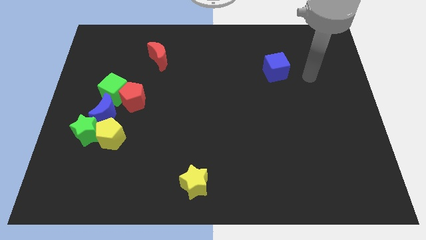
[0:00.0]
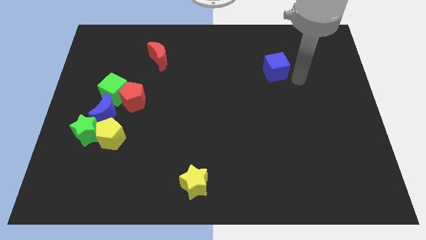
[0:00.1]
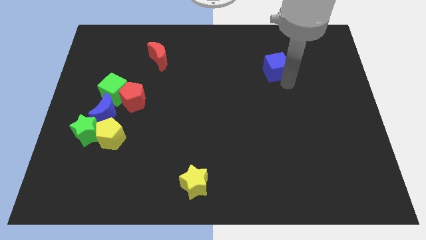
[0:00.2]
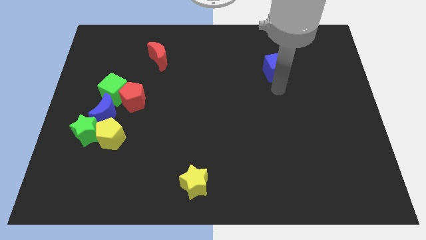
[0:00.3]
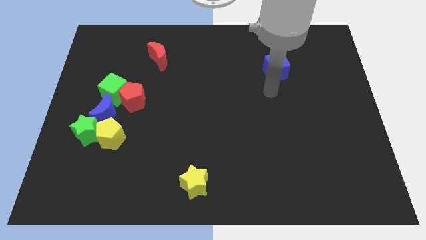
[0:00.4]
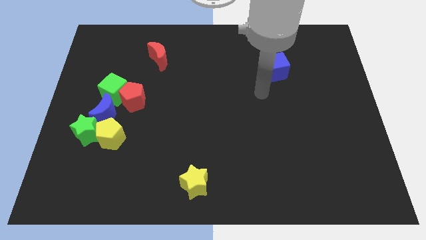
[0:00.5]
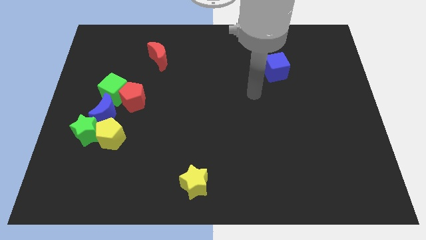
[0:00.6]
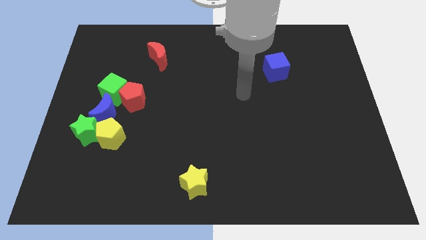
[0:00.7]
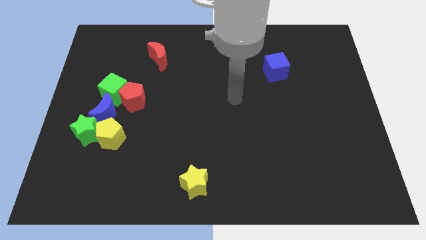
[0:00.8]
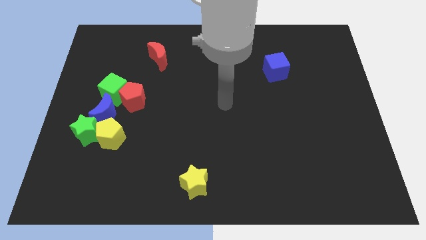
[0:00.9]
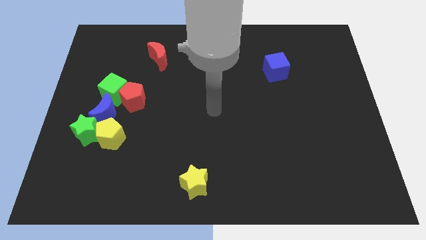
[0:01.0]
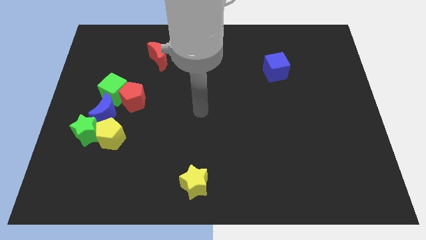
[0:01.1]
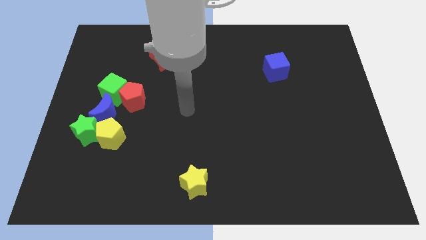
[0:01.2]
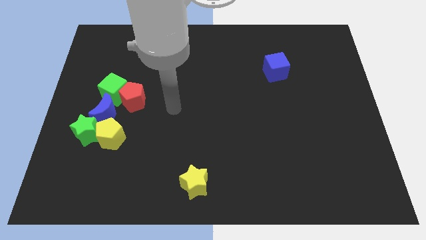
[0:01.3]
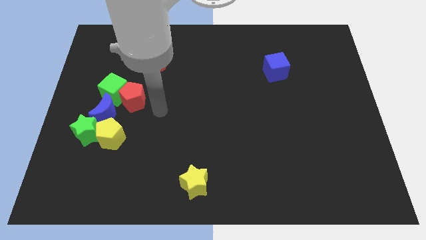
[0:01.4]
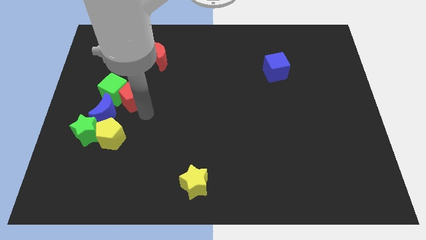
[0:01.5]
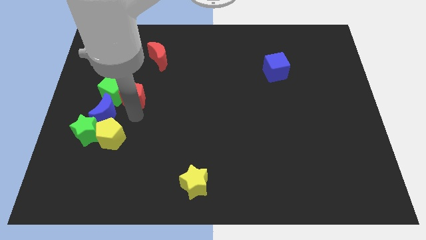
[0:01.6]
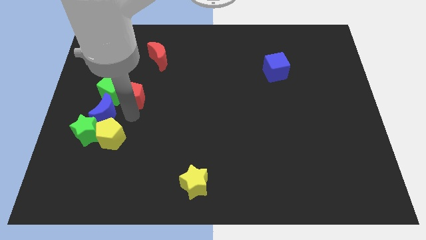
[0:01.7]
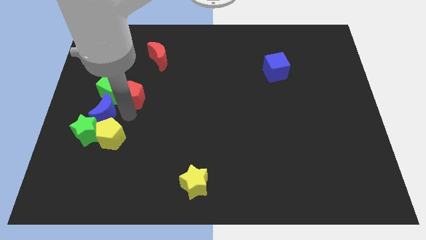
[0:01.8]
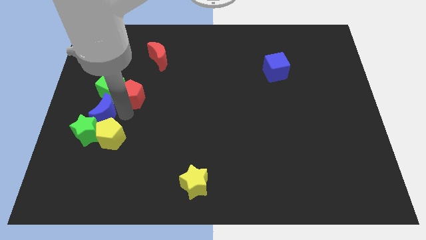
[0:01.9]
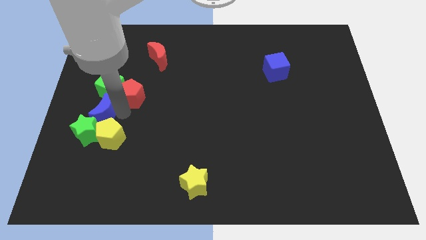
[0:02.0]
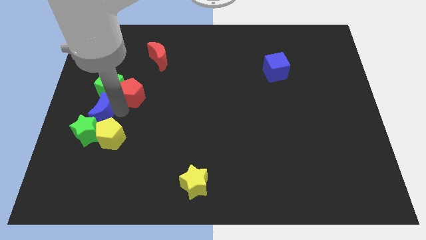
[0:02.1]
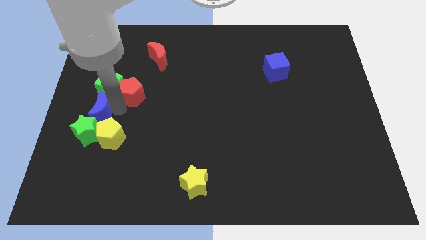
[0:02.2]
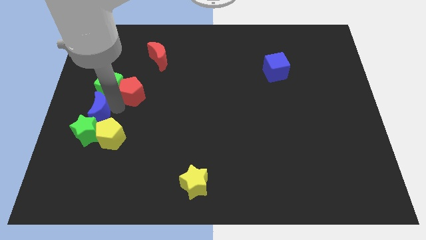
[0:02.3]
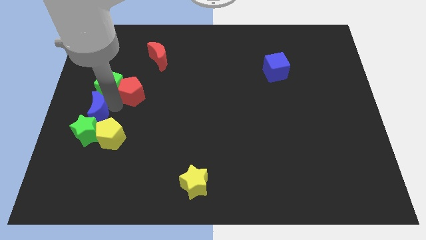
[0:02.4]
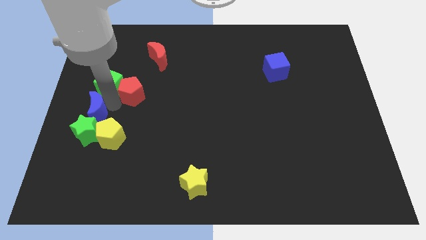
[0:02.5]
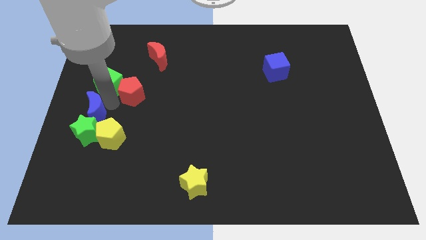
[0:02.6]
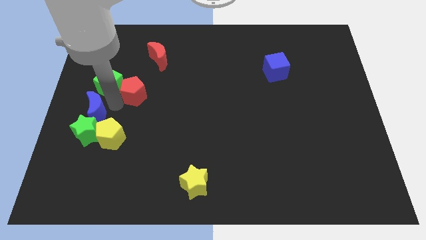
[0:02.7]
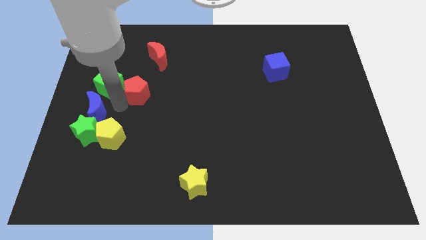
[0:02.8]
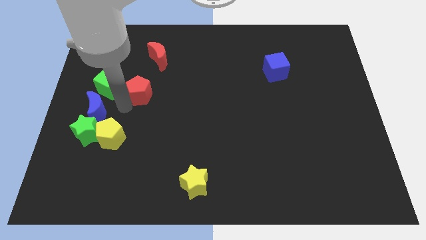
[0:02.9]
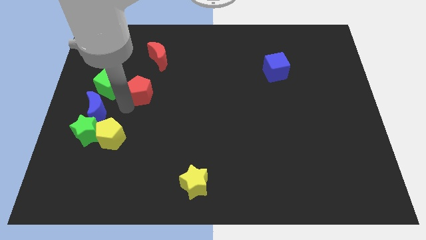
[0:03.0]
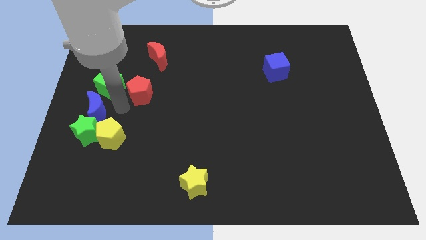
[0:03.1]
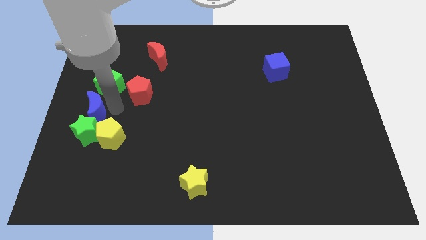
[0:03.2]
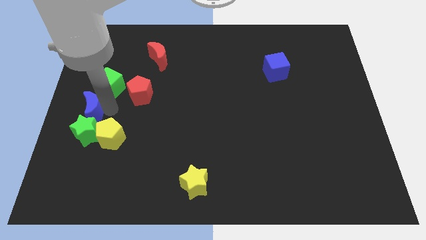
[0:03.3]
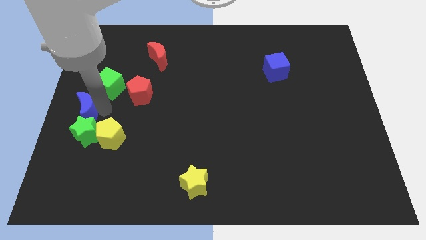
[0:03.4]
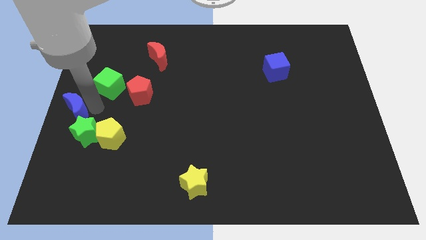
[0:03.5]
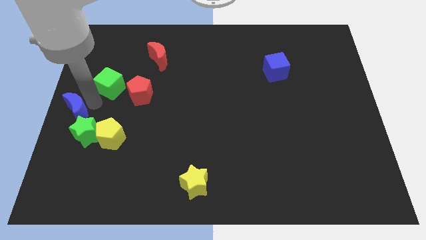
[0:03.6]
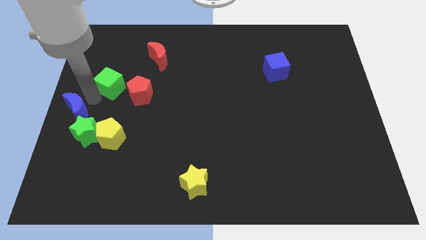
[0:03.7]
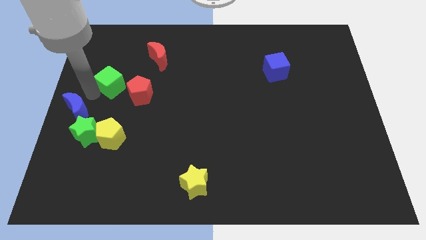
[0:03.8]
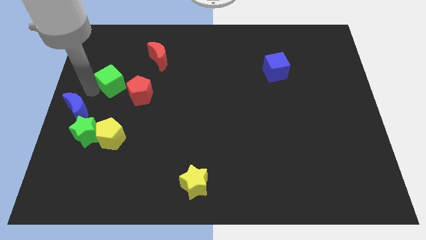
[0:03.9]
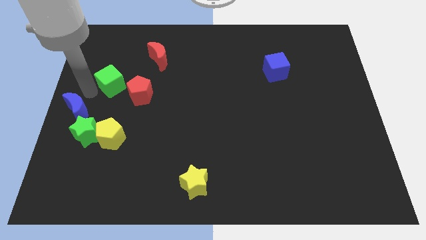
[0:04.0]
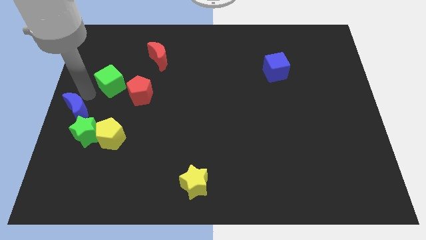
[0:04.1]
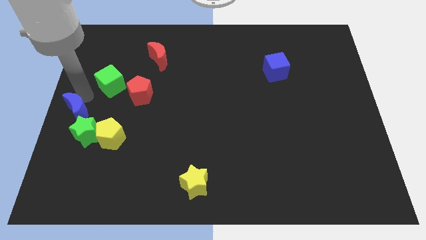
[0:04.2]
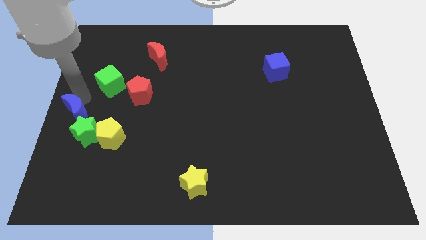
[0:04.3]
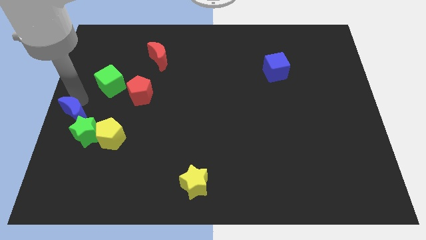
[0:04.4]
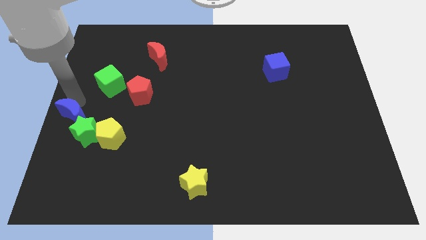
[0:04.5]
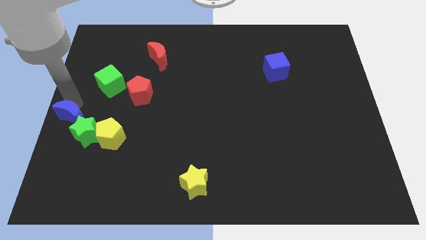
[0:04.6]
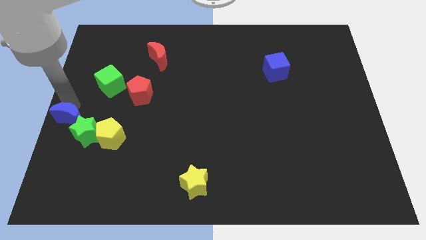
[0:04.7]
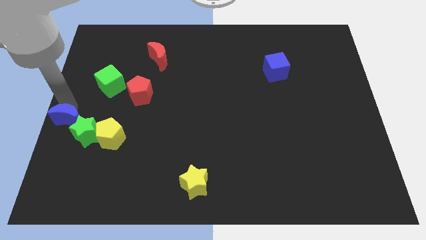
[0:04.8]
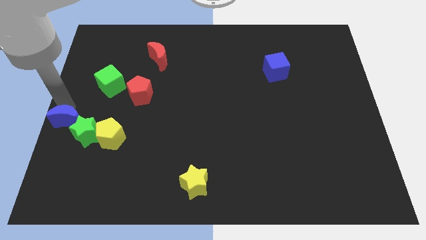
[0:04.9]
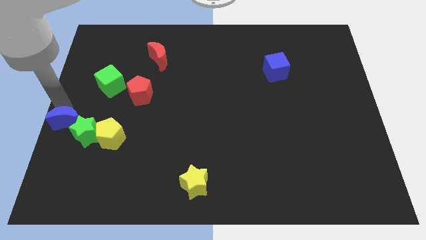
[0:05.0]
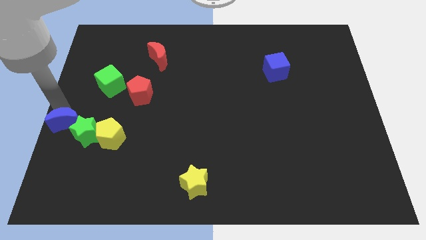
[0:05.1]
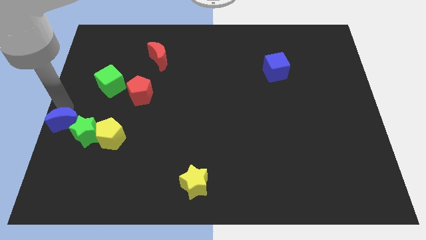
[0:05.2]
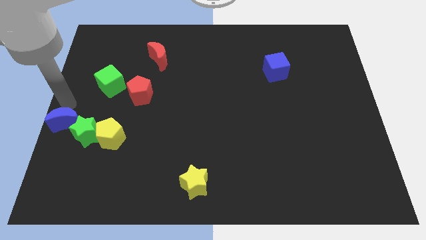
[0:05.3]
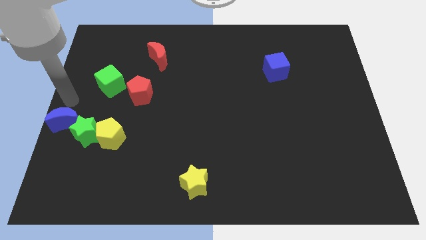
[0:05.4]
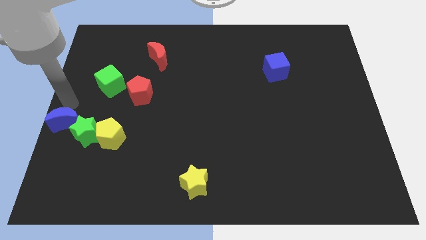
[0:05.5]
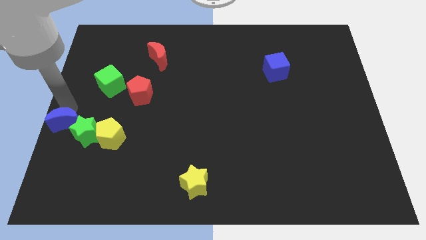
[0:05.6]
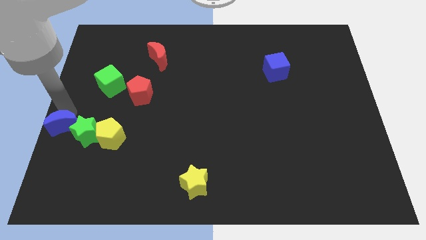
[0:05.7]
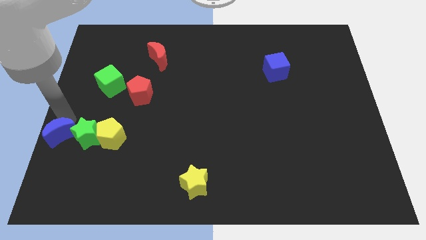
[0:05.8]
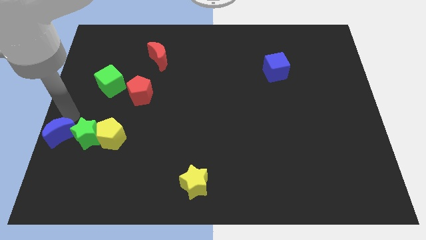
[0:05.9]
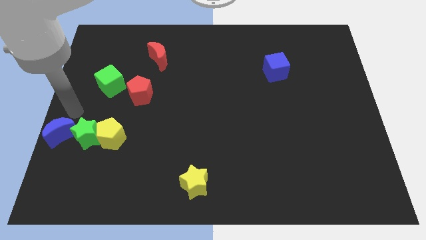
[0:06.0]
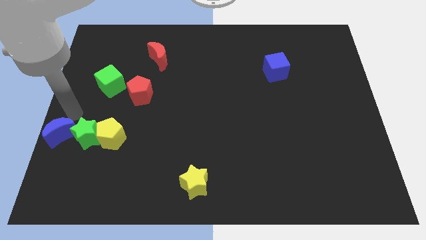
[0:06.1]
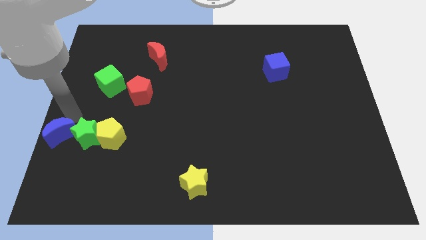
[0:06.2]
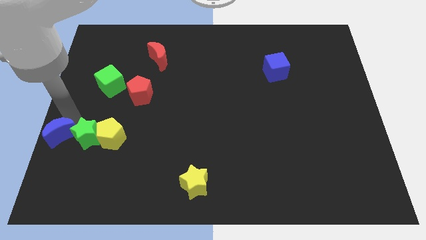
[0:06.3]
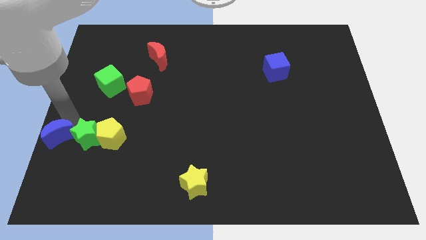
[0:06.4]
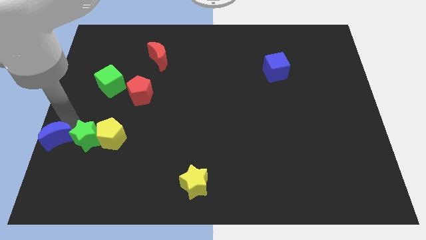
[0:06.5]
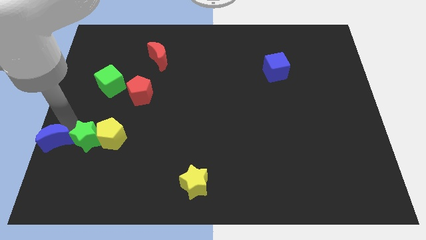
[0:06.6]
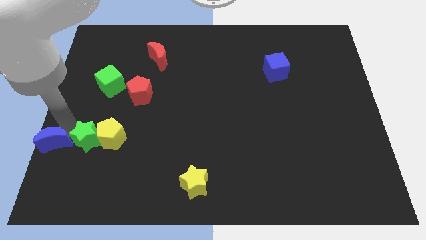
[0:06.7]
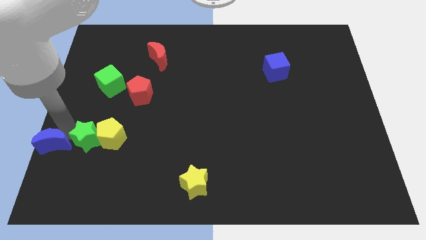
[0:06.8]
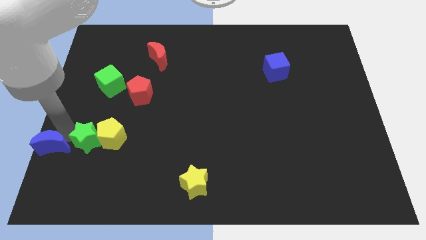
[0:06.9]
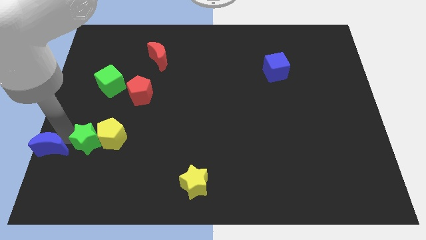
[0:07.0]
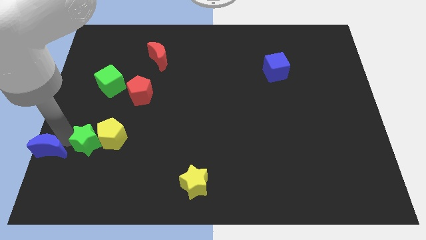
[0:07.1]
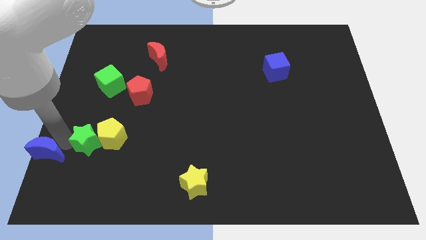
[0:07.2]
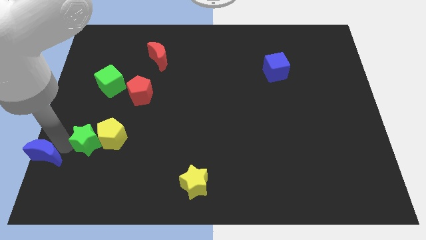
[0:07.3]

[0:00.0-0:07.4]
move the blue moon to the bottom left corner

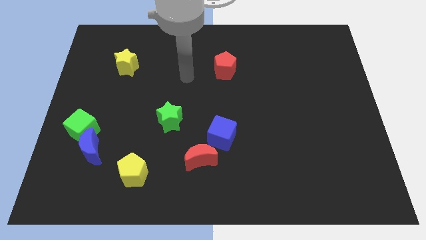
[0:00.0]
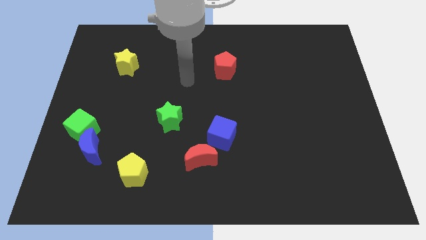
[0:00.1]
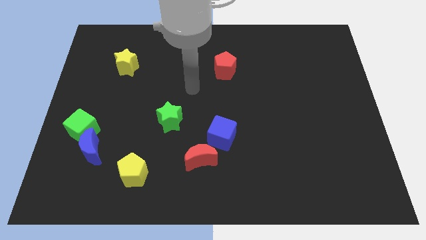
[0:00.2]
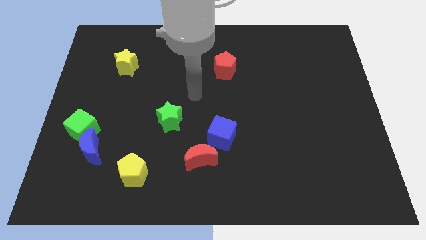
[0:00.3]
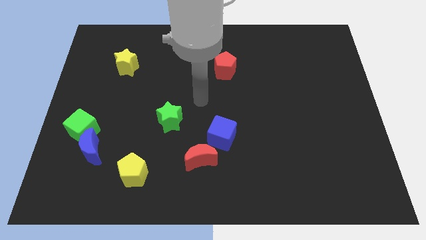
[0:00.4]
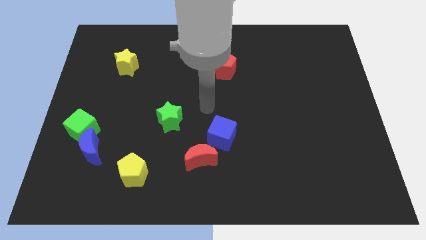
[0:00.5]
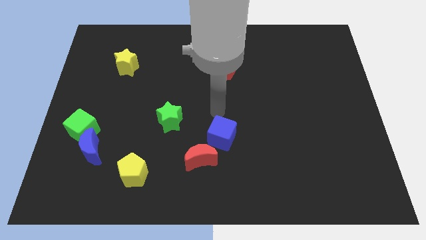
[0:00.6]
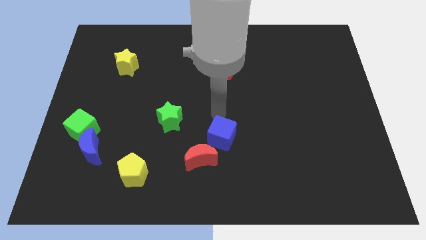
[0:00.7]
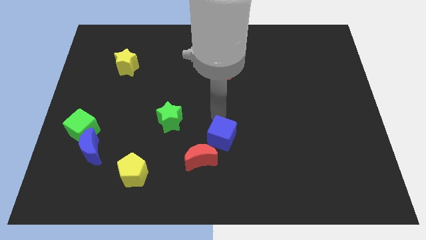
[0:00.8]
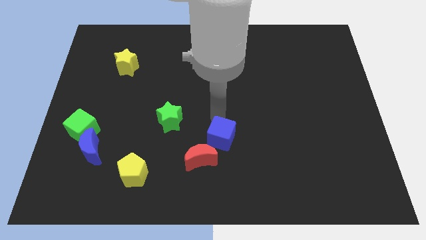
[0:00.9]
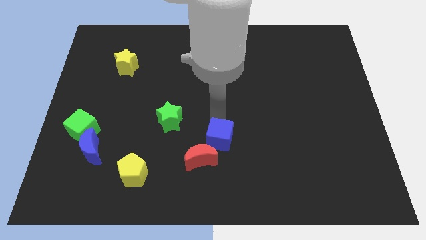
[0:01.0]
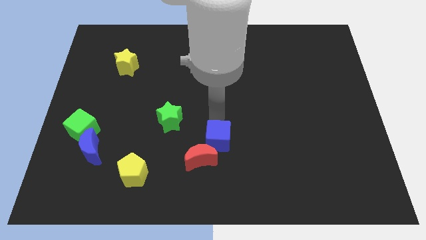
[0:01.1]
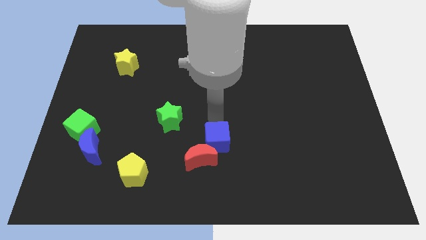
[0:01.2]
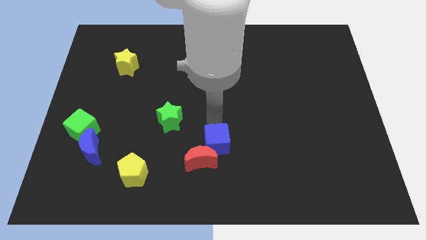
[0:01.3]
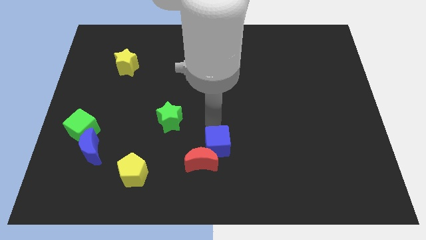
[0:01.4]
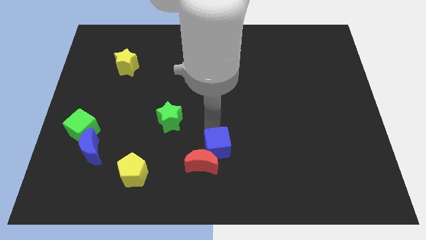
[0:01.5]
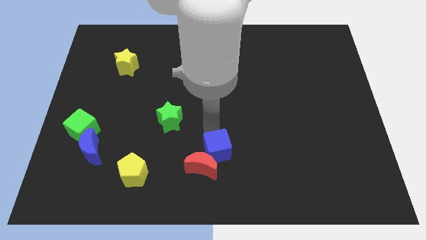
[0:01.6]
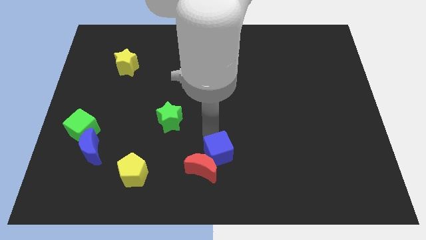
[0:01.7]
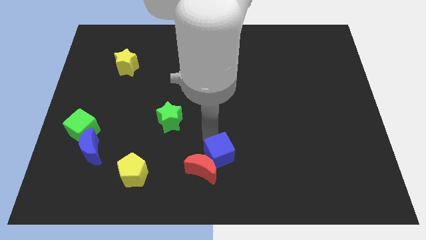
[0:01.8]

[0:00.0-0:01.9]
move the blue cube to the bottom
